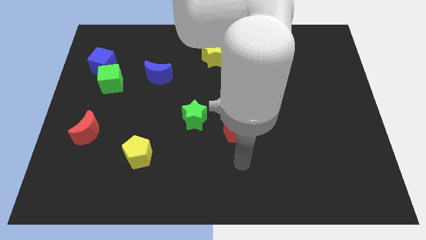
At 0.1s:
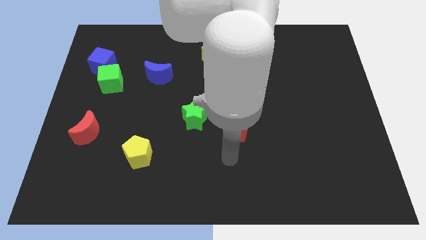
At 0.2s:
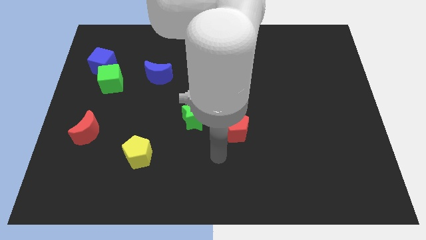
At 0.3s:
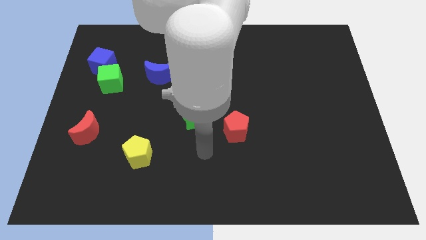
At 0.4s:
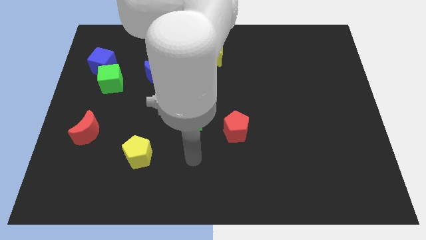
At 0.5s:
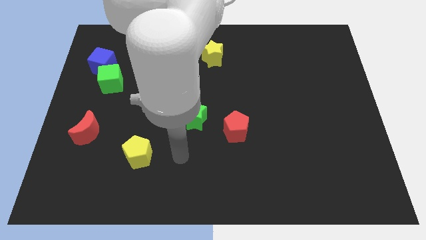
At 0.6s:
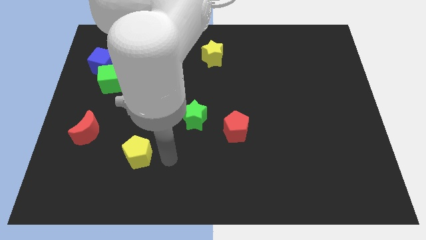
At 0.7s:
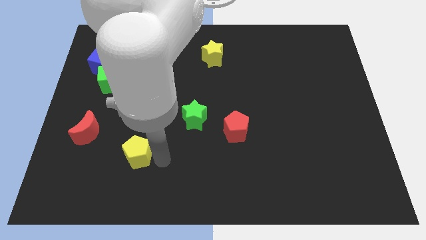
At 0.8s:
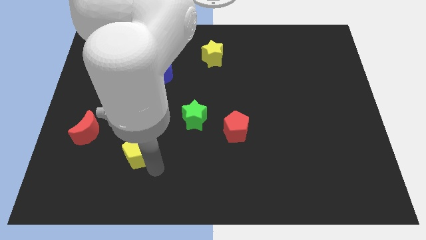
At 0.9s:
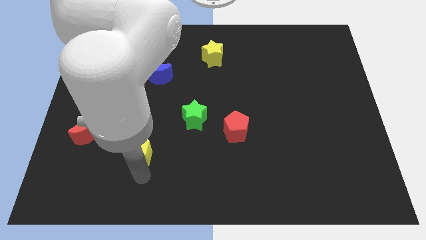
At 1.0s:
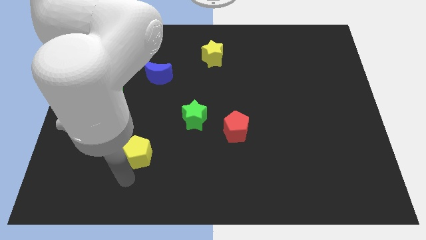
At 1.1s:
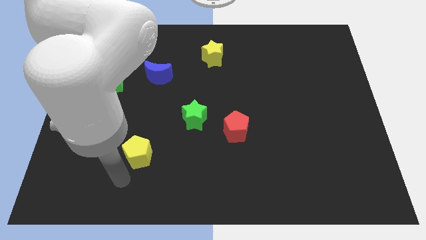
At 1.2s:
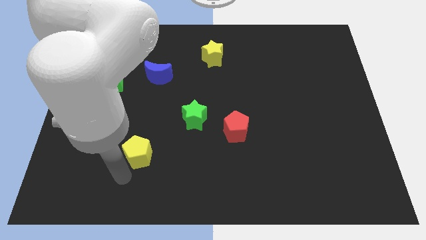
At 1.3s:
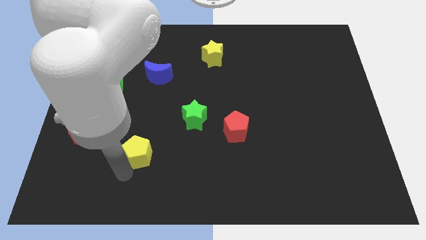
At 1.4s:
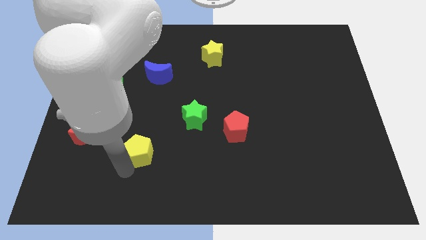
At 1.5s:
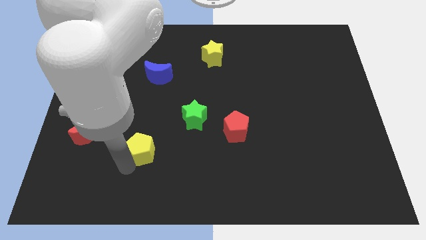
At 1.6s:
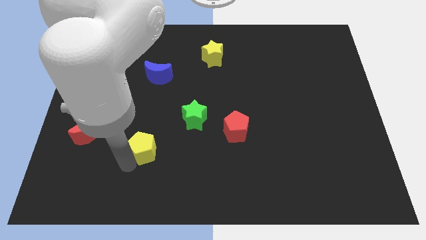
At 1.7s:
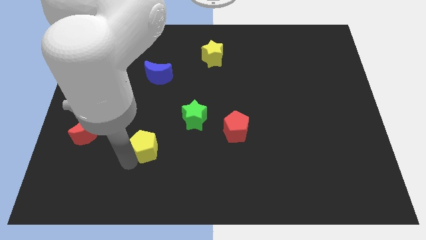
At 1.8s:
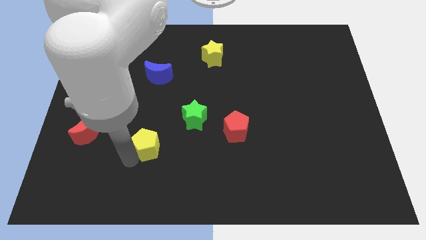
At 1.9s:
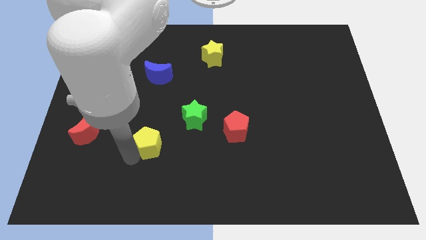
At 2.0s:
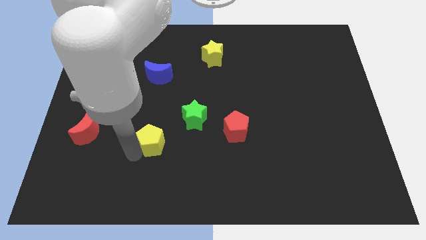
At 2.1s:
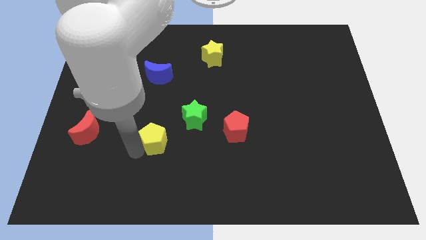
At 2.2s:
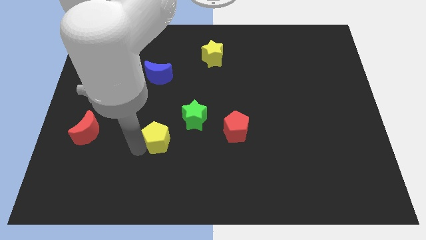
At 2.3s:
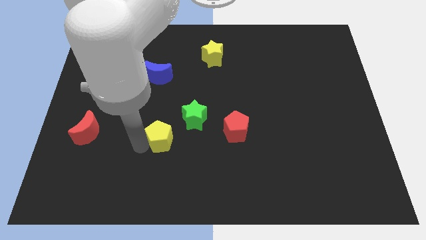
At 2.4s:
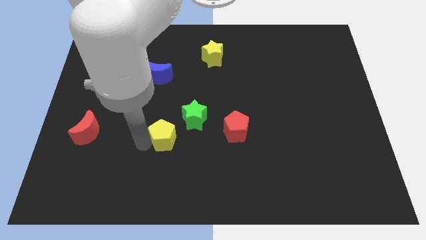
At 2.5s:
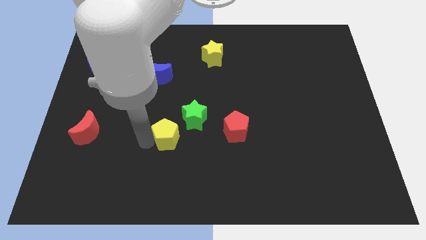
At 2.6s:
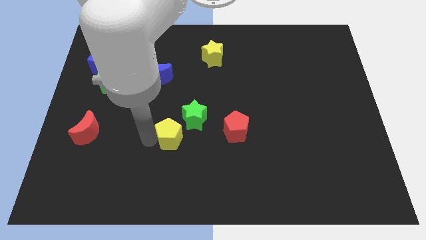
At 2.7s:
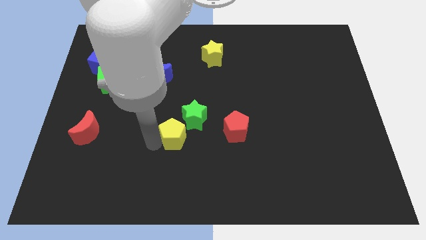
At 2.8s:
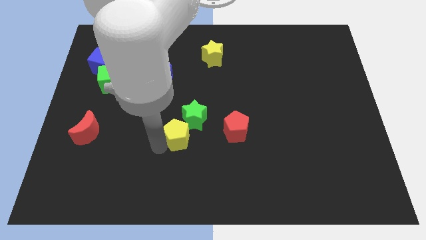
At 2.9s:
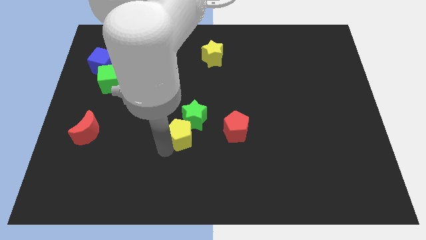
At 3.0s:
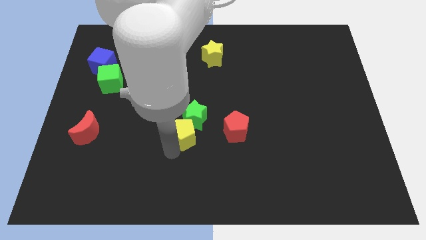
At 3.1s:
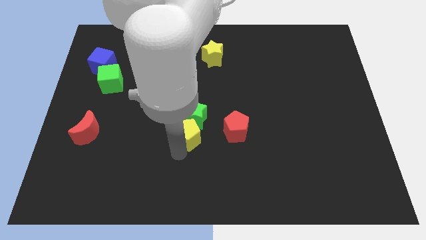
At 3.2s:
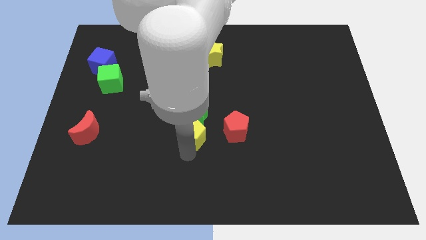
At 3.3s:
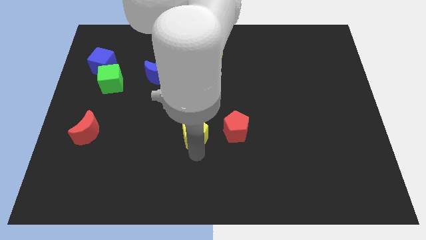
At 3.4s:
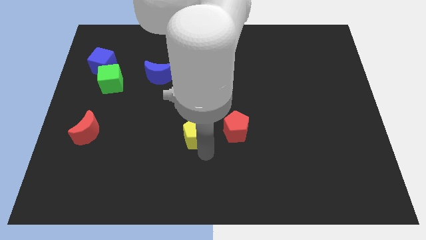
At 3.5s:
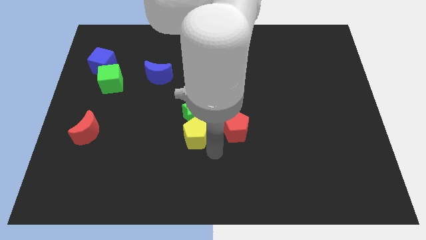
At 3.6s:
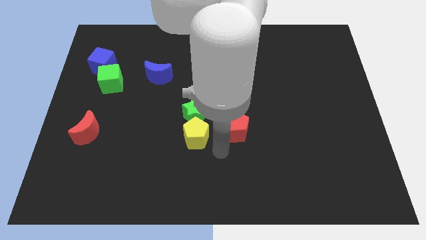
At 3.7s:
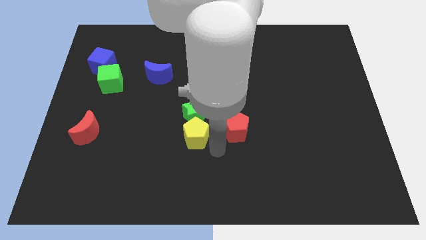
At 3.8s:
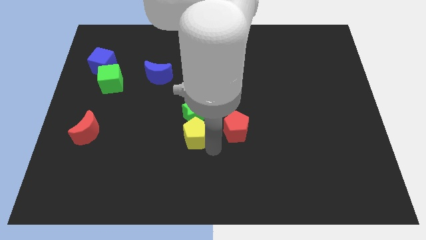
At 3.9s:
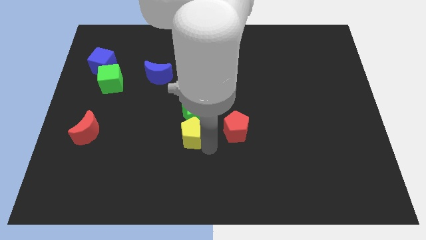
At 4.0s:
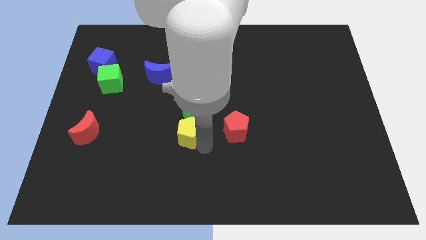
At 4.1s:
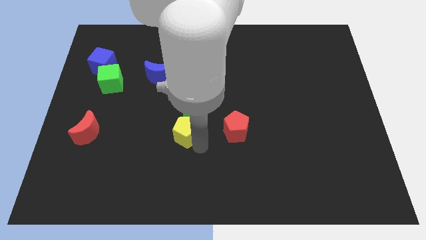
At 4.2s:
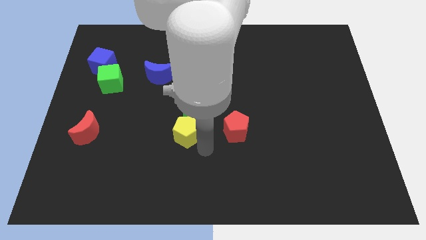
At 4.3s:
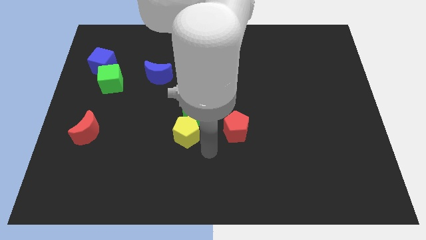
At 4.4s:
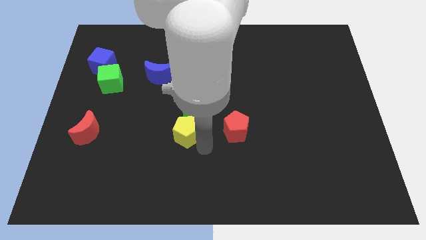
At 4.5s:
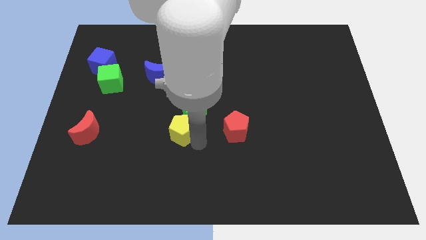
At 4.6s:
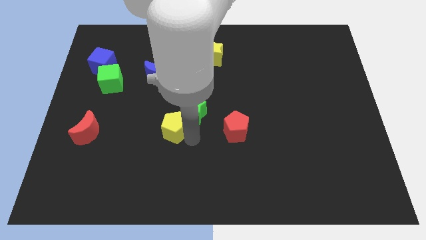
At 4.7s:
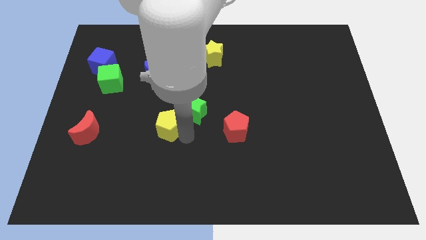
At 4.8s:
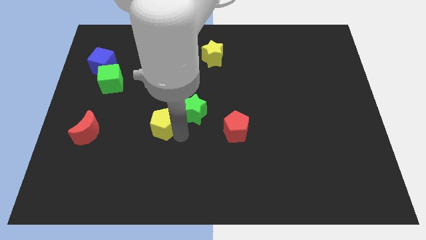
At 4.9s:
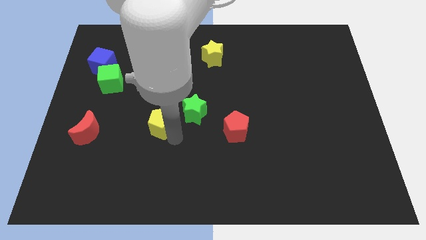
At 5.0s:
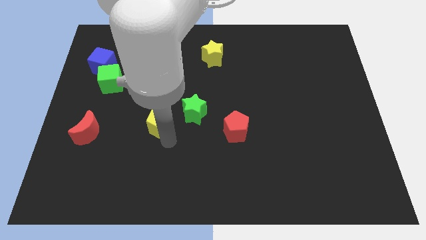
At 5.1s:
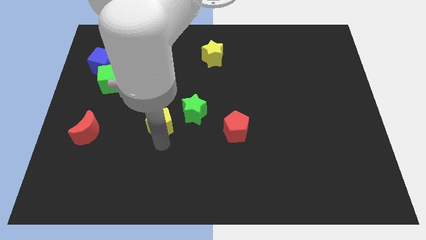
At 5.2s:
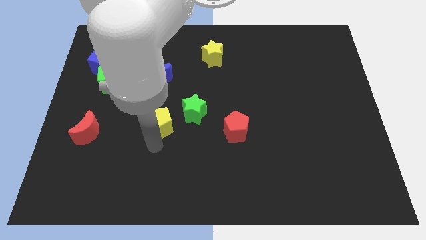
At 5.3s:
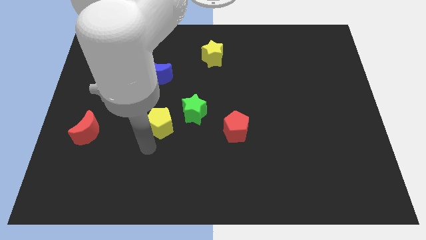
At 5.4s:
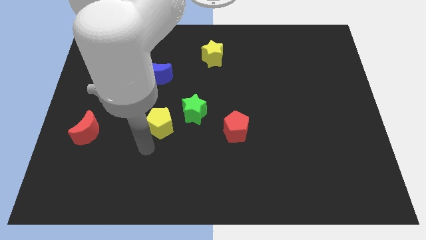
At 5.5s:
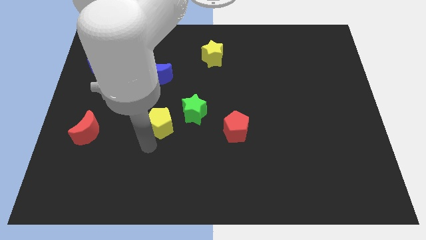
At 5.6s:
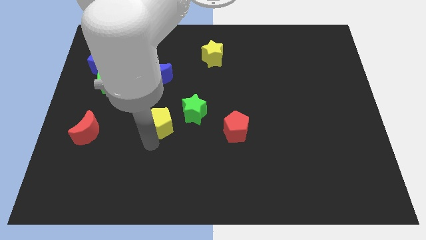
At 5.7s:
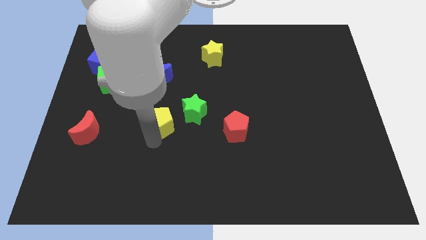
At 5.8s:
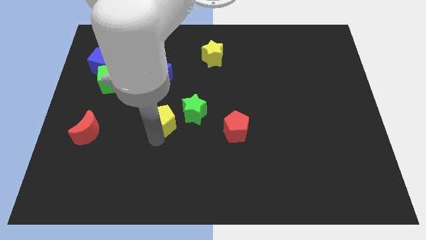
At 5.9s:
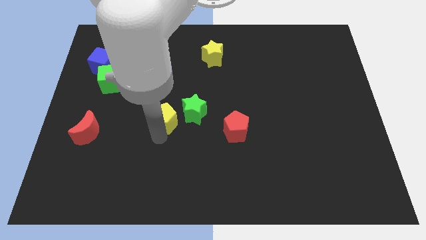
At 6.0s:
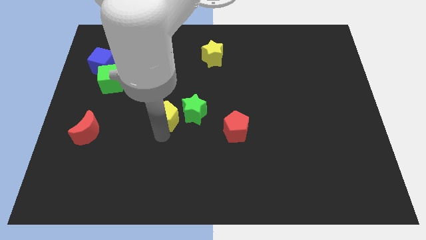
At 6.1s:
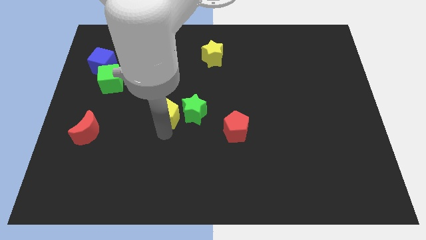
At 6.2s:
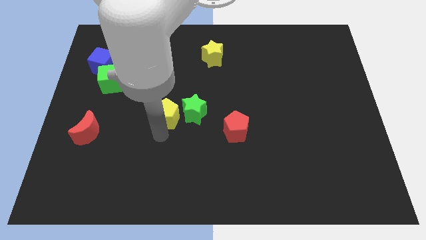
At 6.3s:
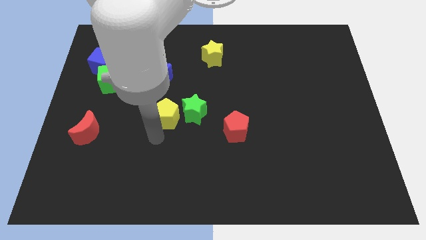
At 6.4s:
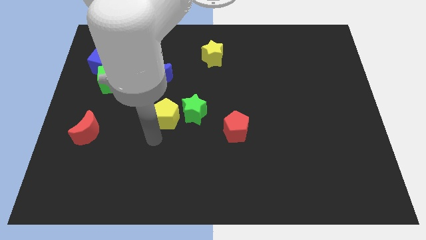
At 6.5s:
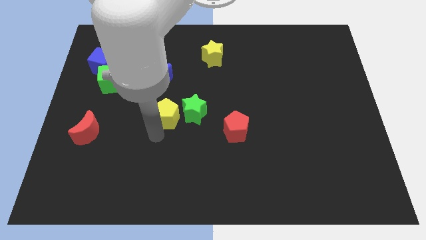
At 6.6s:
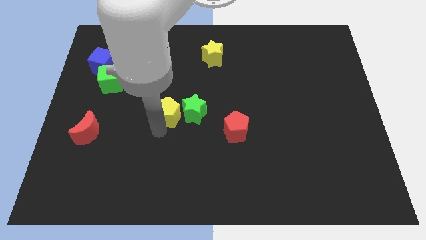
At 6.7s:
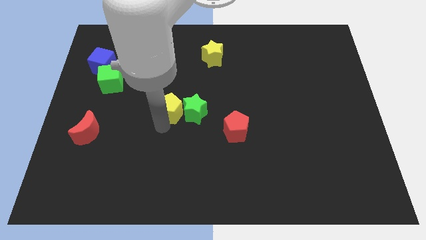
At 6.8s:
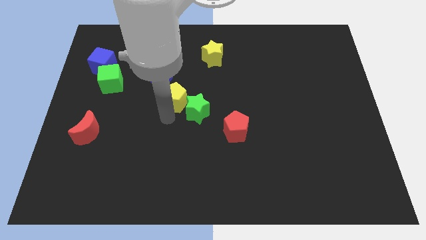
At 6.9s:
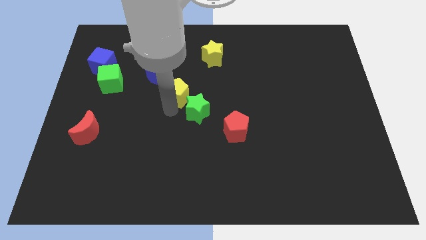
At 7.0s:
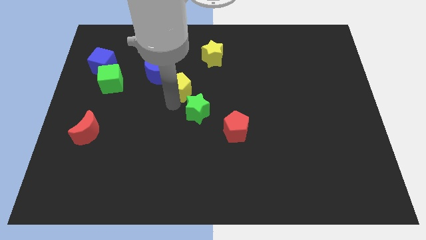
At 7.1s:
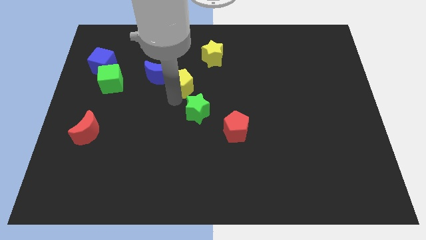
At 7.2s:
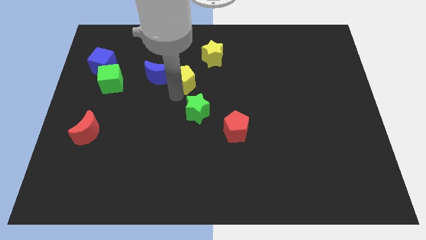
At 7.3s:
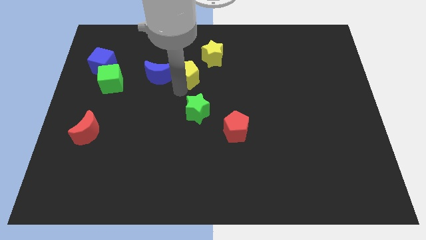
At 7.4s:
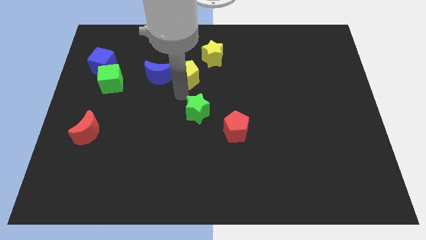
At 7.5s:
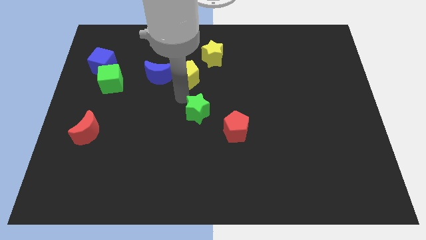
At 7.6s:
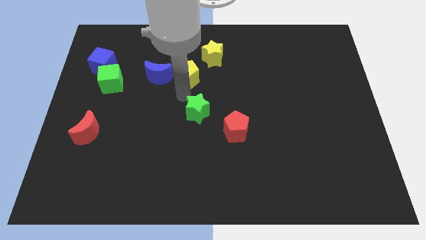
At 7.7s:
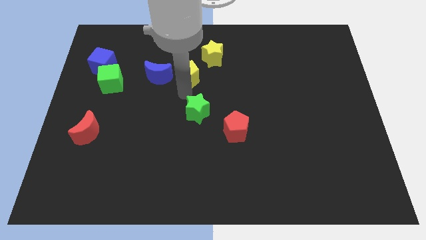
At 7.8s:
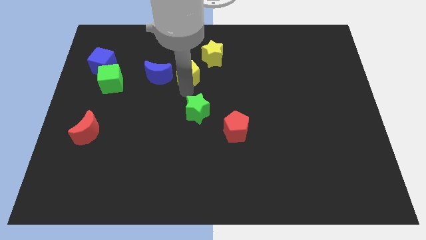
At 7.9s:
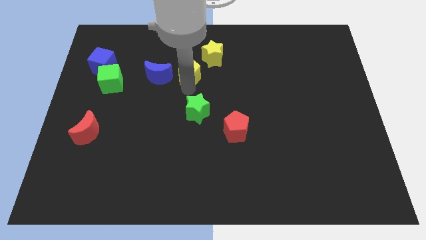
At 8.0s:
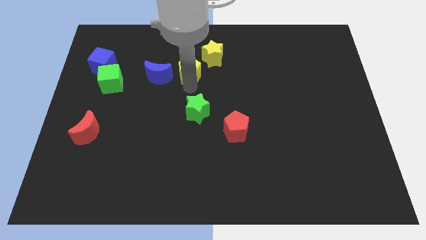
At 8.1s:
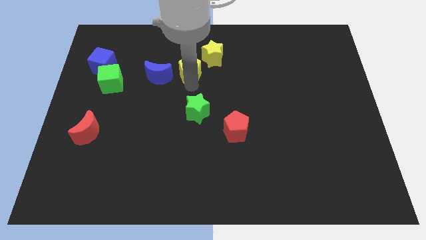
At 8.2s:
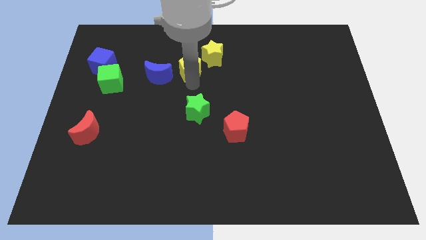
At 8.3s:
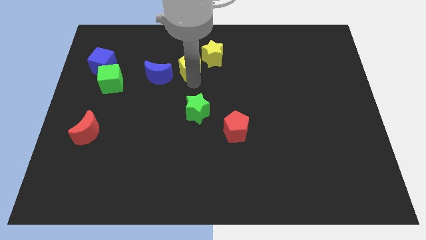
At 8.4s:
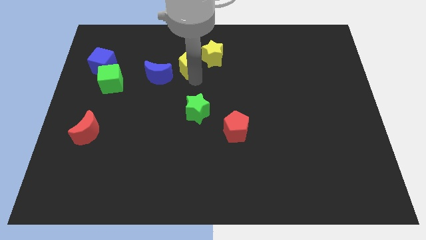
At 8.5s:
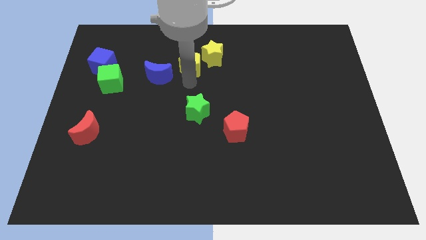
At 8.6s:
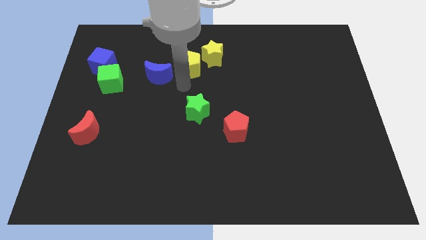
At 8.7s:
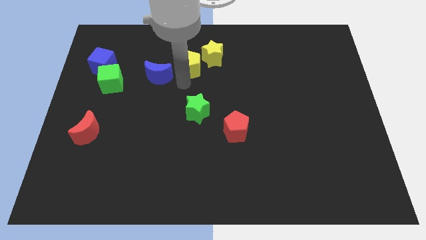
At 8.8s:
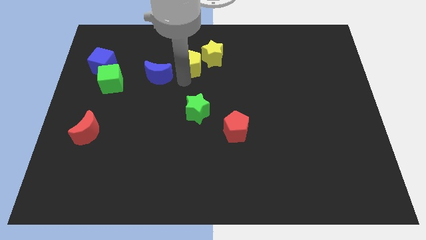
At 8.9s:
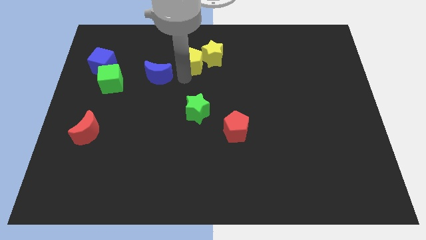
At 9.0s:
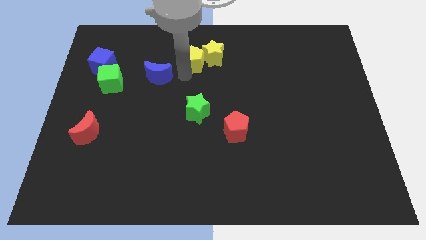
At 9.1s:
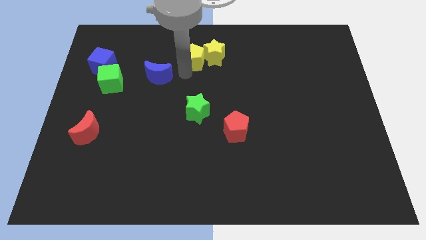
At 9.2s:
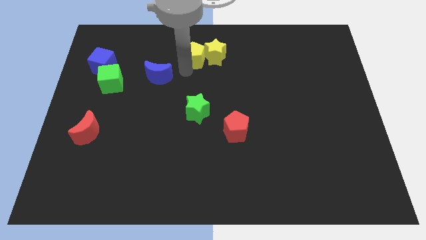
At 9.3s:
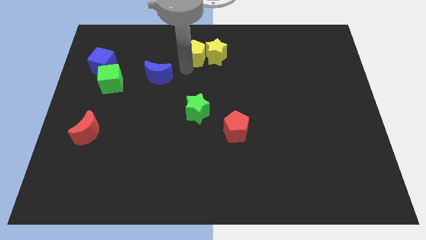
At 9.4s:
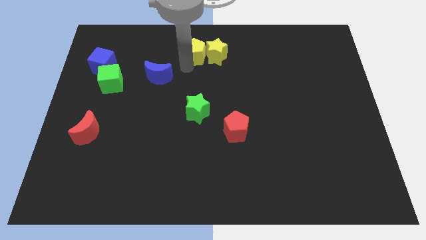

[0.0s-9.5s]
push the yellow pentagon to the top side
